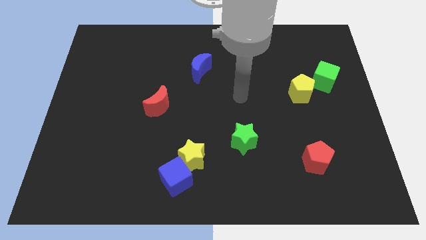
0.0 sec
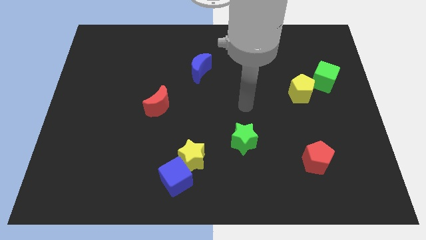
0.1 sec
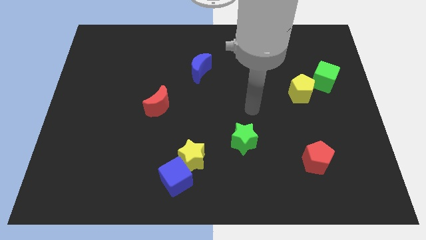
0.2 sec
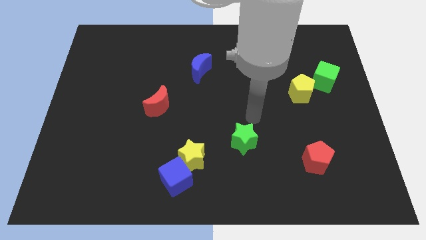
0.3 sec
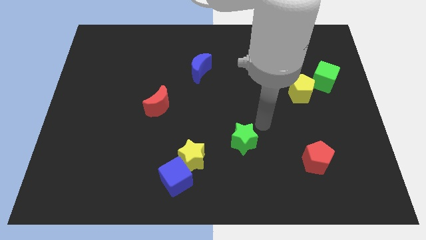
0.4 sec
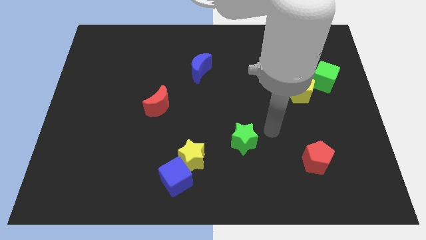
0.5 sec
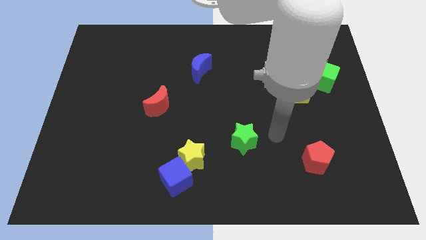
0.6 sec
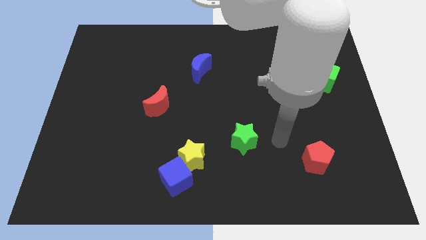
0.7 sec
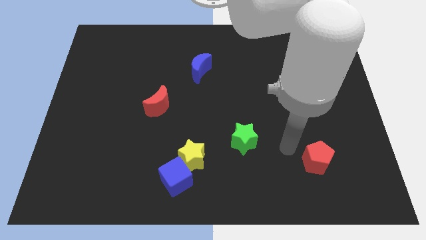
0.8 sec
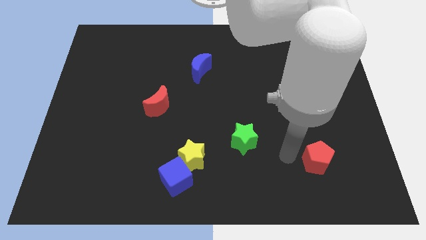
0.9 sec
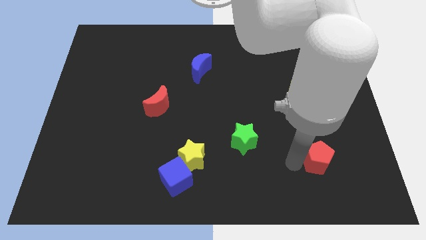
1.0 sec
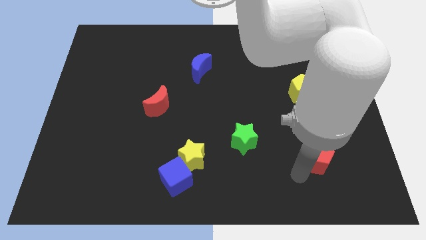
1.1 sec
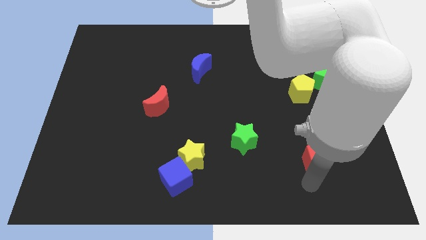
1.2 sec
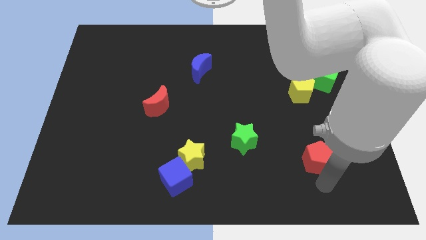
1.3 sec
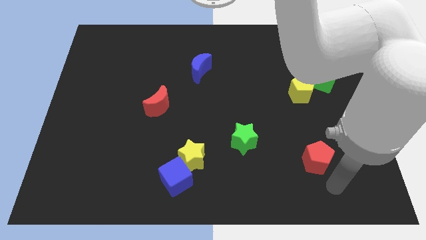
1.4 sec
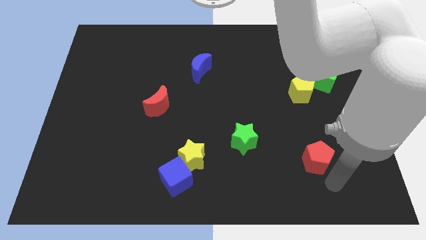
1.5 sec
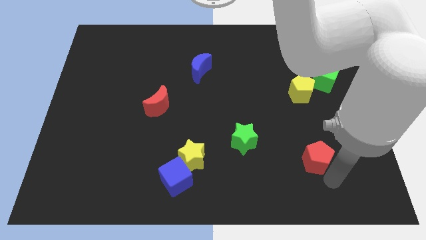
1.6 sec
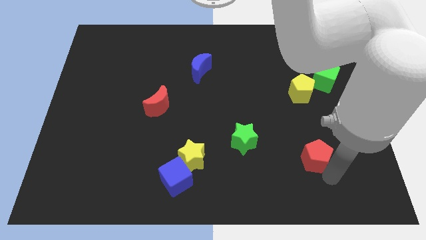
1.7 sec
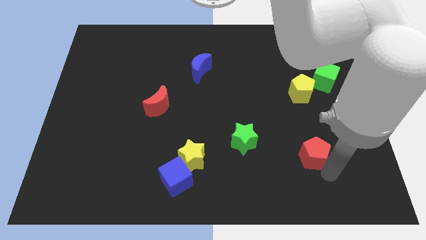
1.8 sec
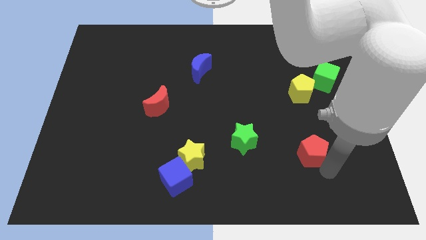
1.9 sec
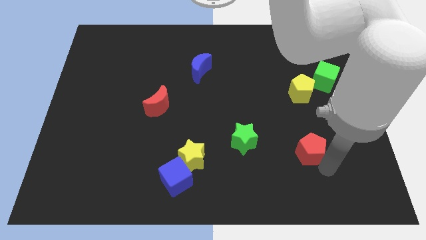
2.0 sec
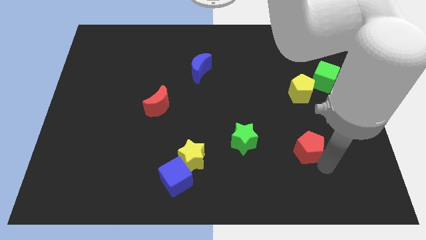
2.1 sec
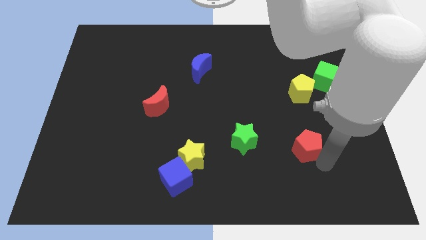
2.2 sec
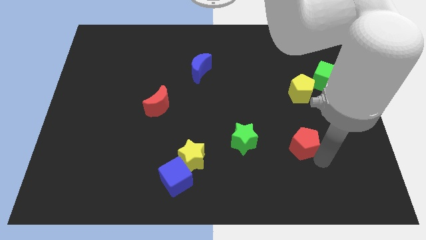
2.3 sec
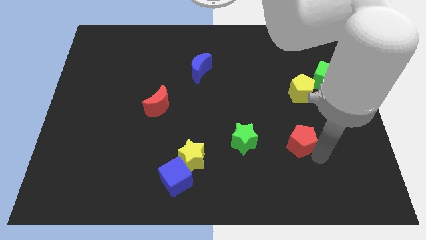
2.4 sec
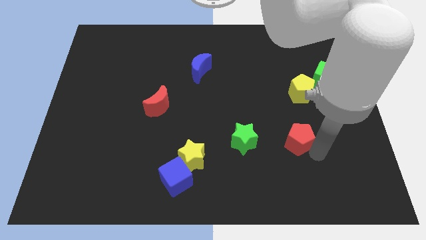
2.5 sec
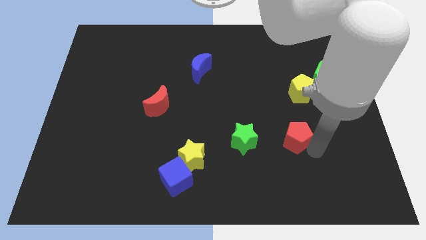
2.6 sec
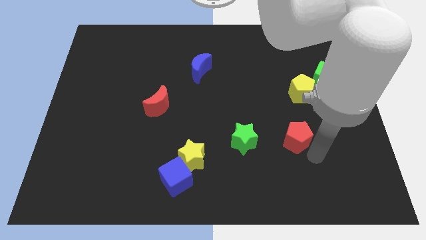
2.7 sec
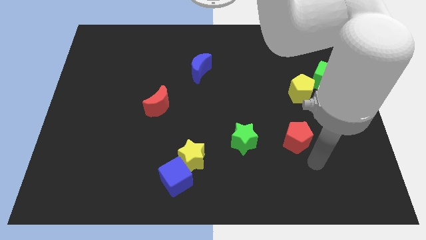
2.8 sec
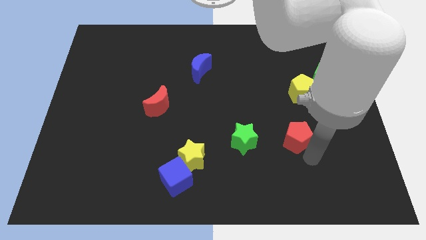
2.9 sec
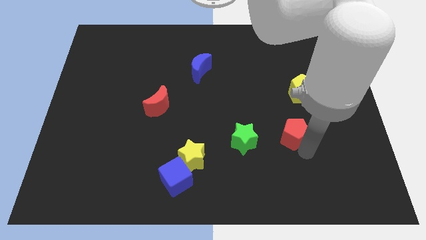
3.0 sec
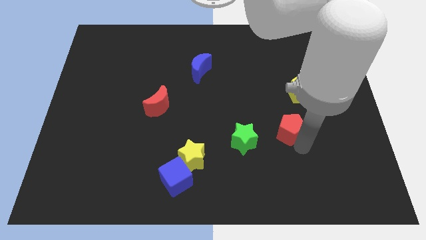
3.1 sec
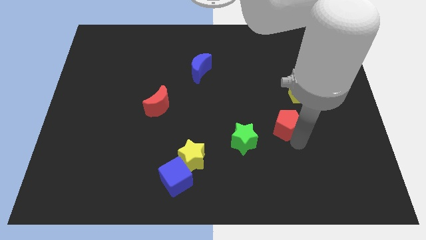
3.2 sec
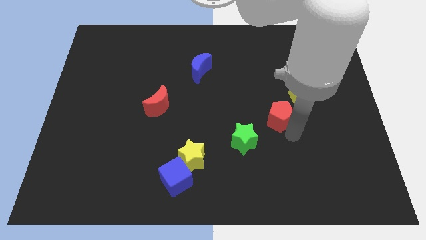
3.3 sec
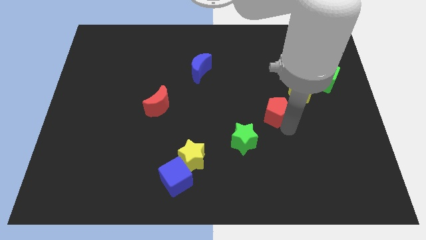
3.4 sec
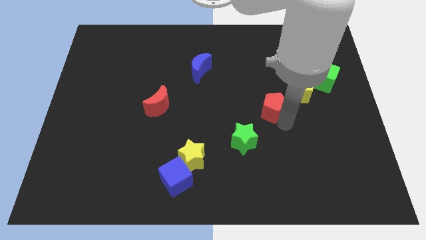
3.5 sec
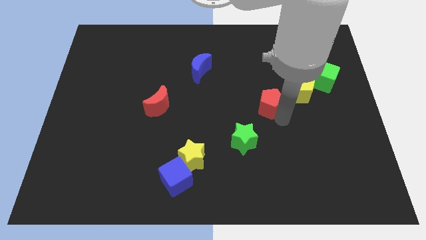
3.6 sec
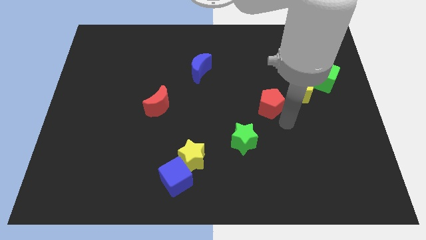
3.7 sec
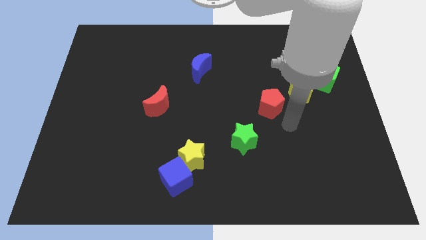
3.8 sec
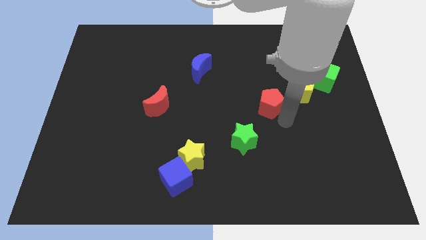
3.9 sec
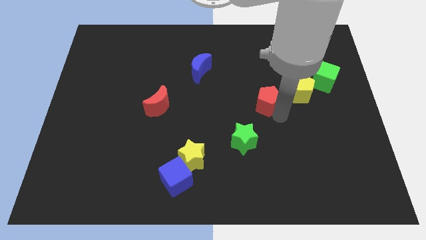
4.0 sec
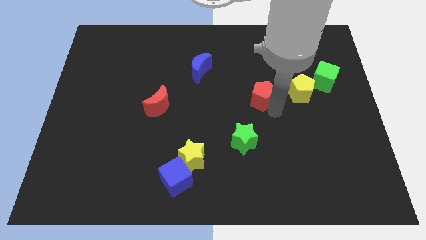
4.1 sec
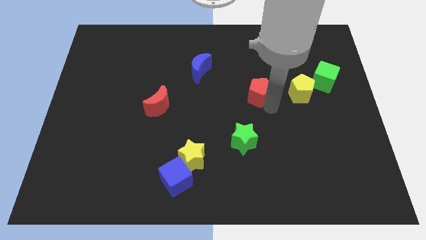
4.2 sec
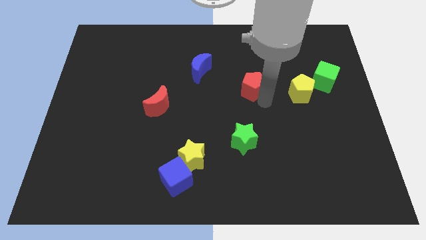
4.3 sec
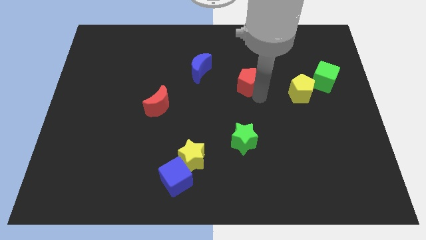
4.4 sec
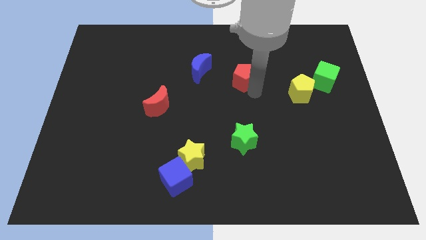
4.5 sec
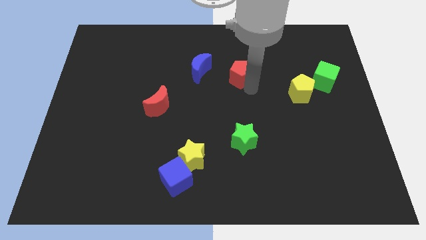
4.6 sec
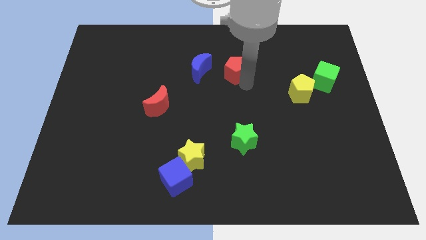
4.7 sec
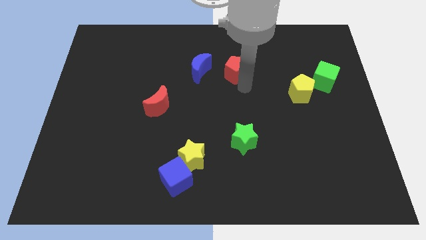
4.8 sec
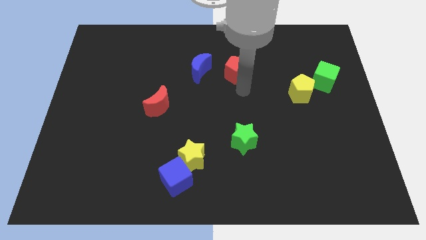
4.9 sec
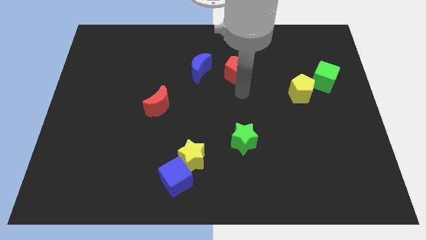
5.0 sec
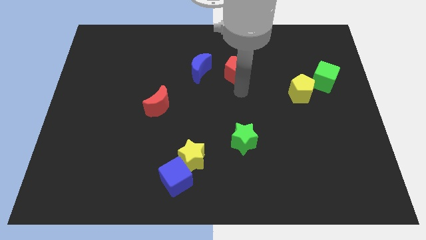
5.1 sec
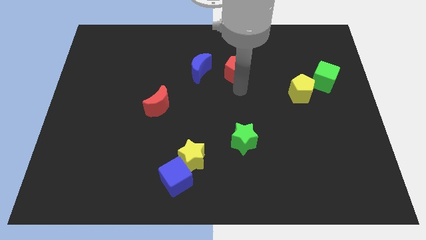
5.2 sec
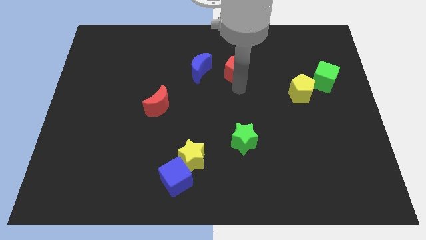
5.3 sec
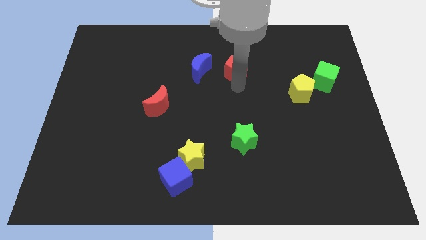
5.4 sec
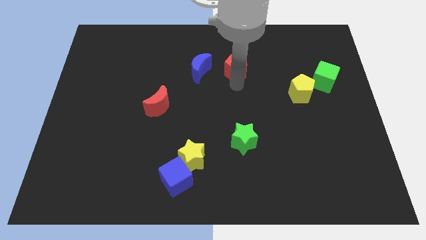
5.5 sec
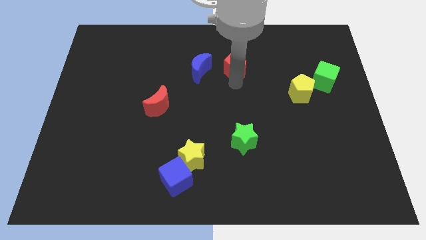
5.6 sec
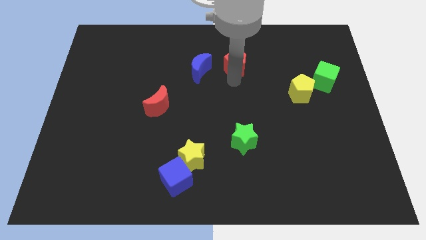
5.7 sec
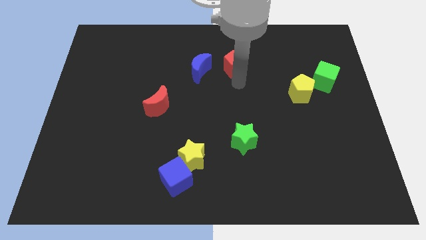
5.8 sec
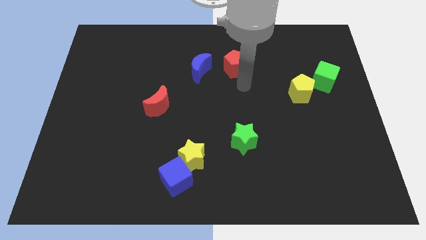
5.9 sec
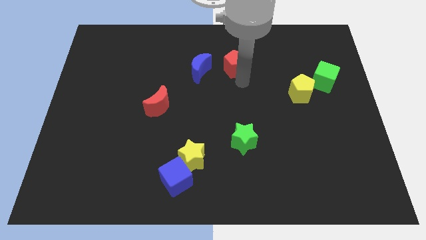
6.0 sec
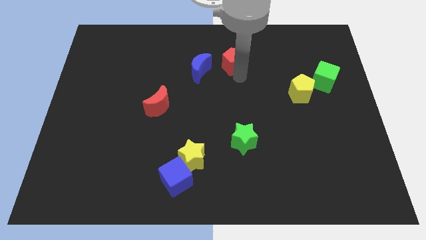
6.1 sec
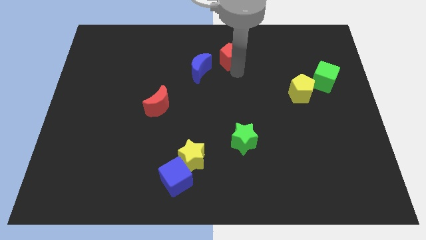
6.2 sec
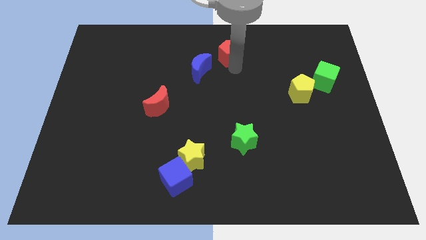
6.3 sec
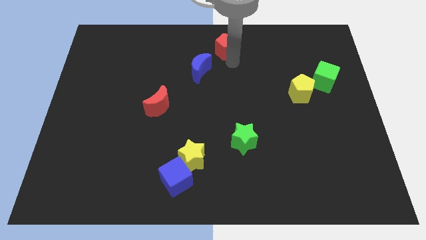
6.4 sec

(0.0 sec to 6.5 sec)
move the red pentagon to the towards your base
